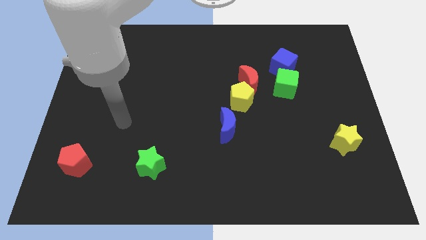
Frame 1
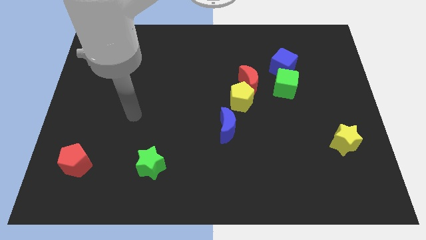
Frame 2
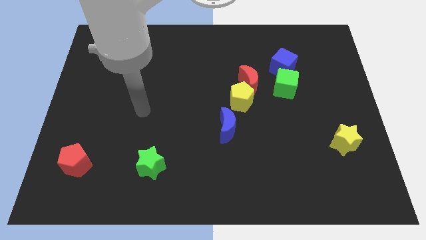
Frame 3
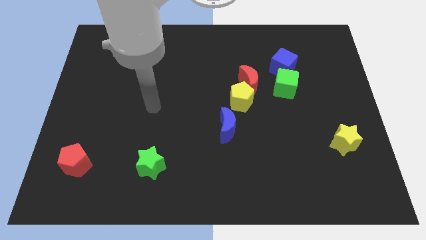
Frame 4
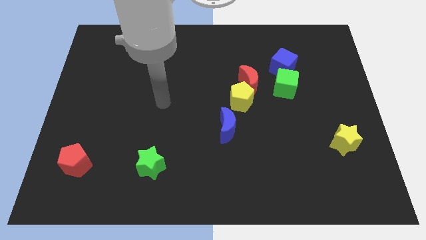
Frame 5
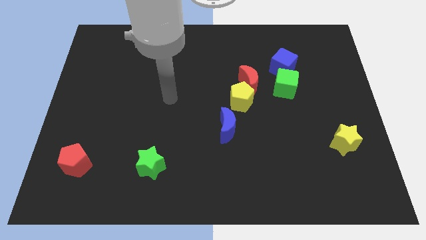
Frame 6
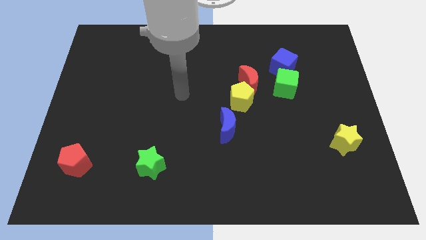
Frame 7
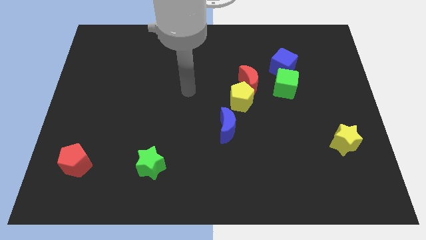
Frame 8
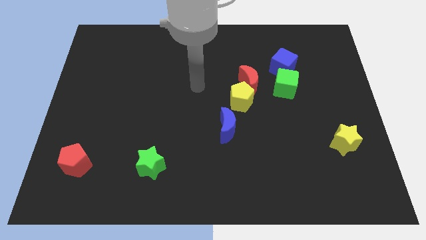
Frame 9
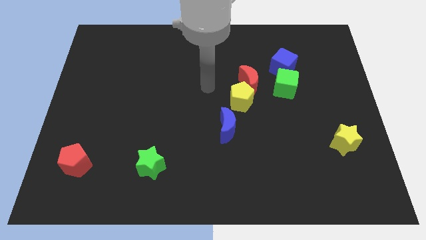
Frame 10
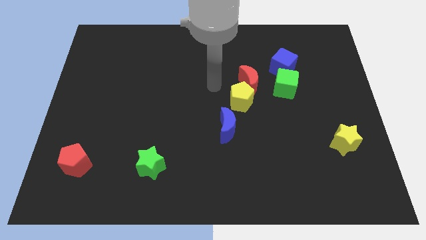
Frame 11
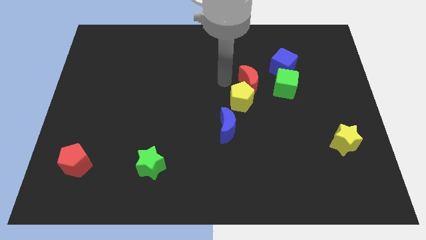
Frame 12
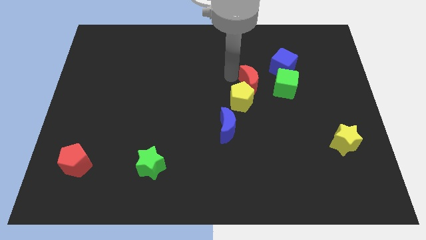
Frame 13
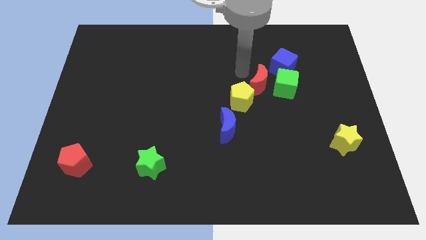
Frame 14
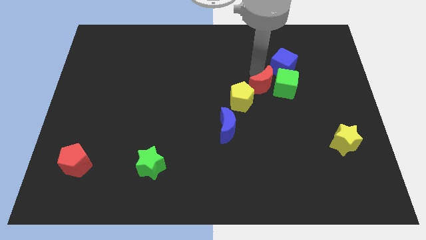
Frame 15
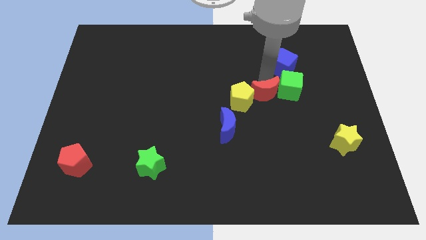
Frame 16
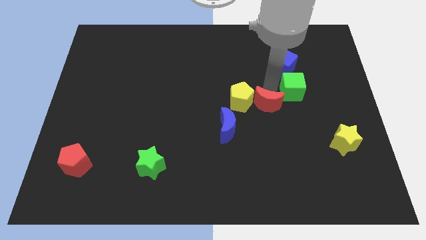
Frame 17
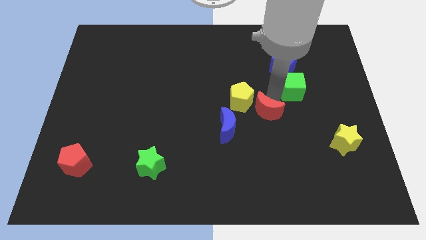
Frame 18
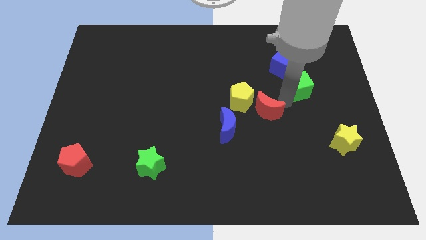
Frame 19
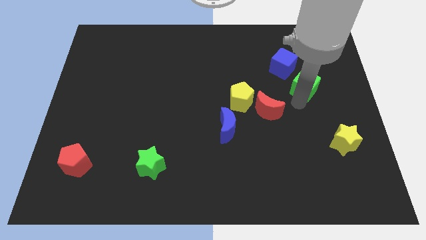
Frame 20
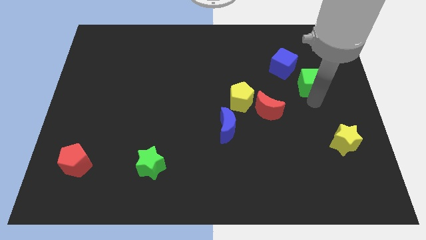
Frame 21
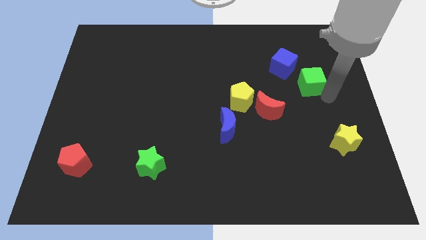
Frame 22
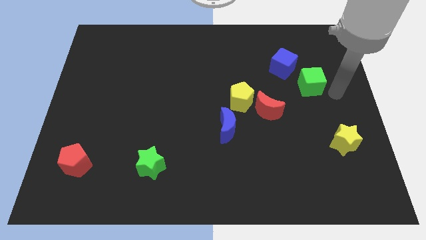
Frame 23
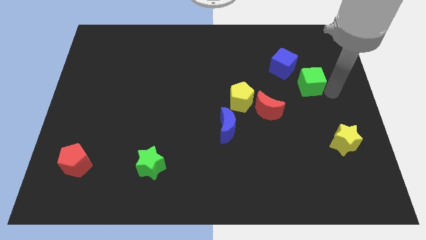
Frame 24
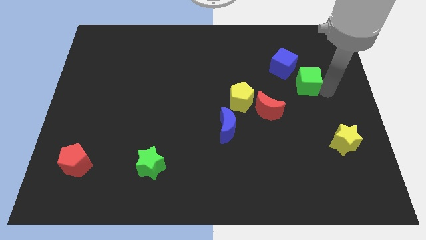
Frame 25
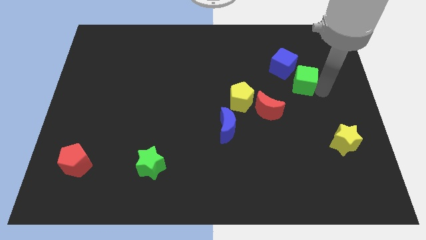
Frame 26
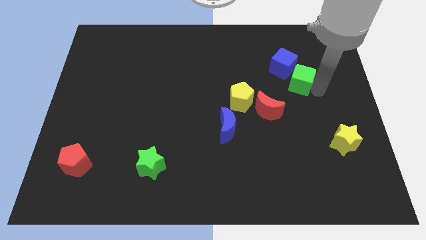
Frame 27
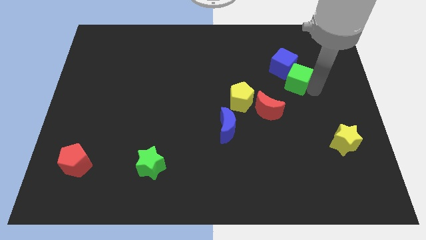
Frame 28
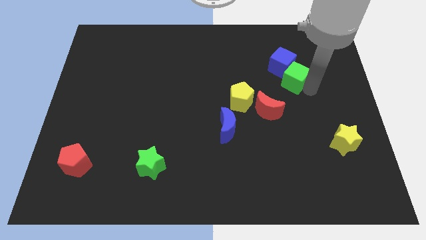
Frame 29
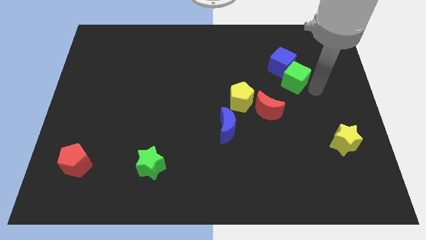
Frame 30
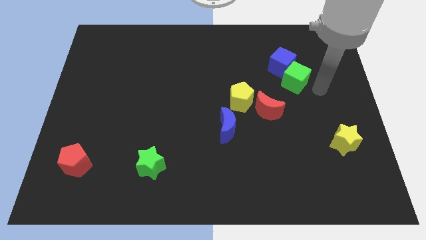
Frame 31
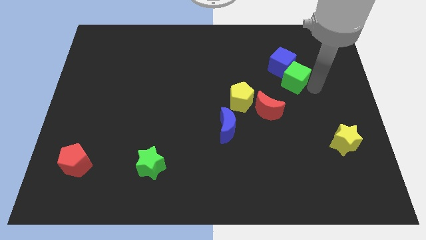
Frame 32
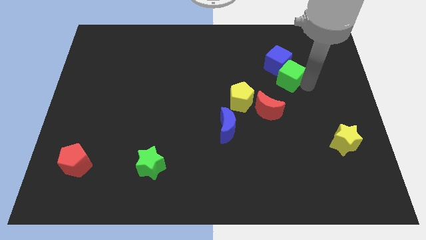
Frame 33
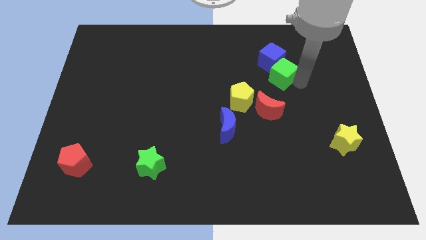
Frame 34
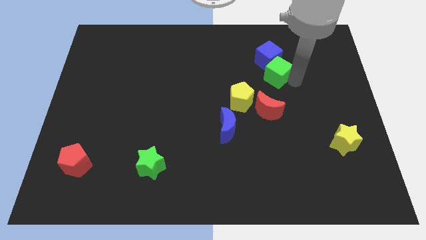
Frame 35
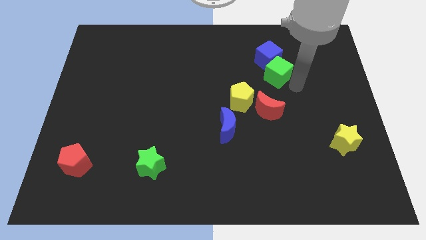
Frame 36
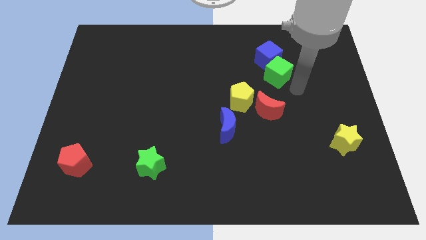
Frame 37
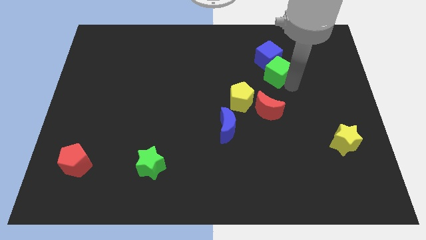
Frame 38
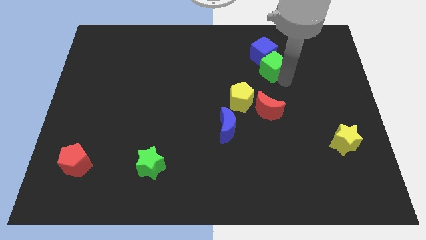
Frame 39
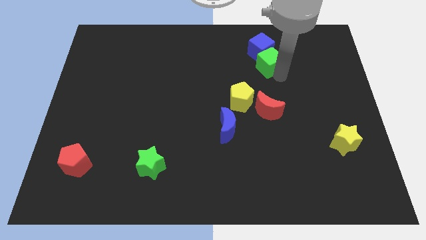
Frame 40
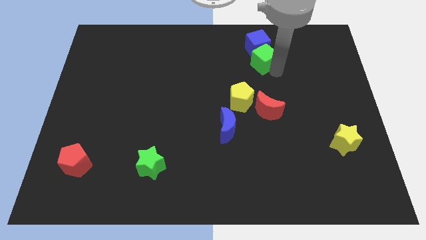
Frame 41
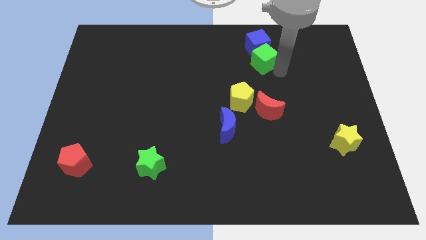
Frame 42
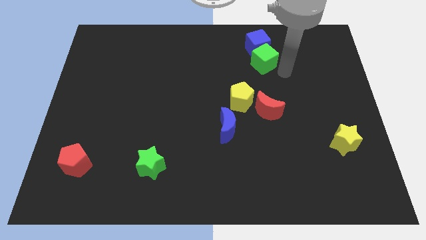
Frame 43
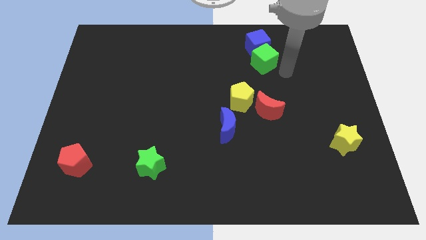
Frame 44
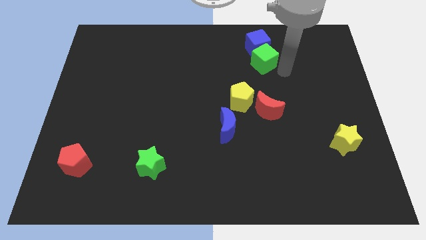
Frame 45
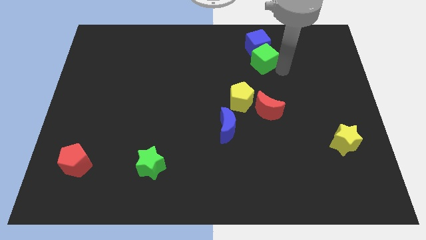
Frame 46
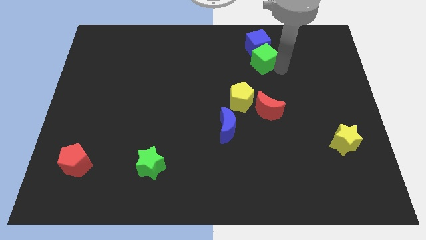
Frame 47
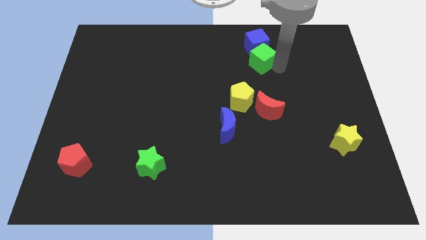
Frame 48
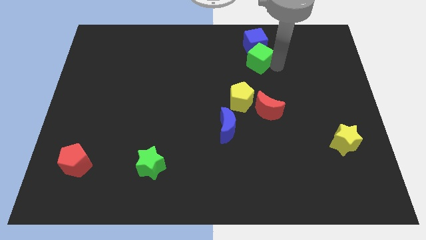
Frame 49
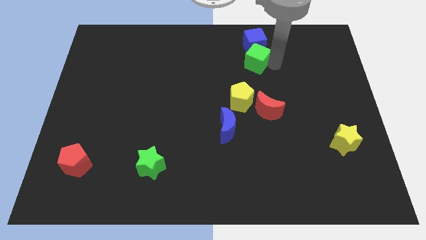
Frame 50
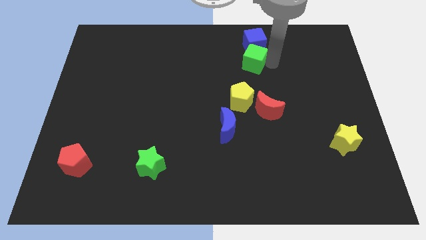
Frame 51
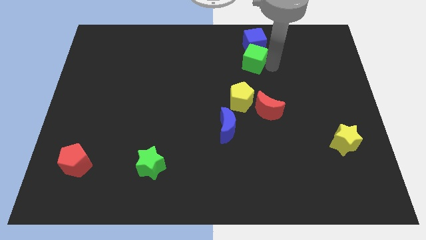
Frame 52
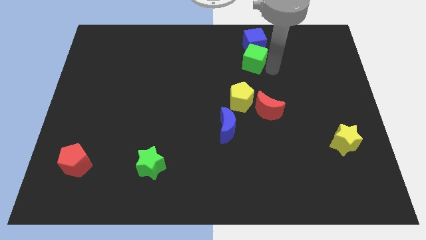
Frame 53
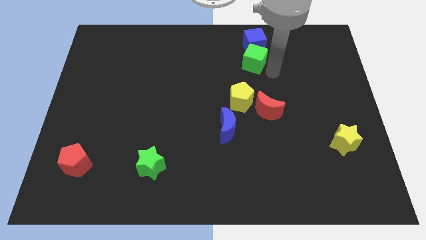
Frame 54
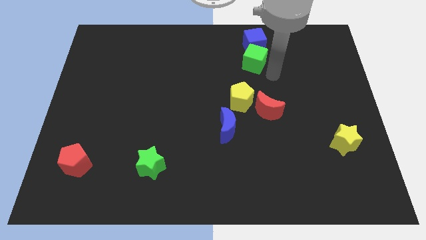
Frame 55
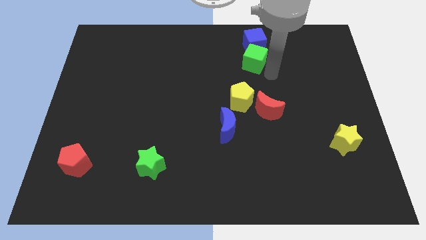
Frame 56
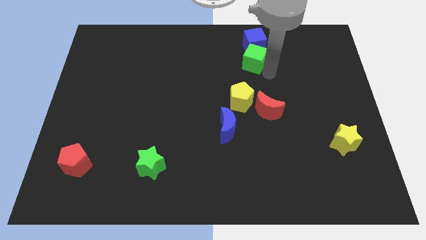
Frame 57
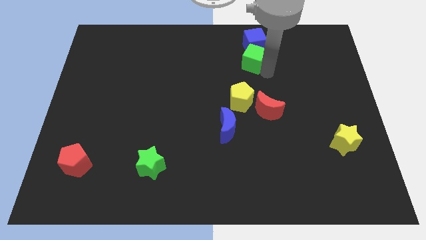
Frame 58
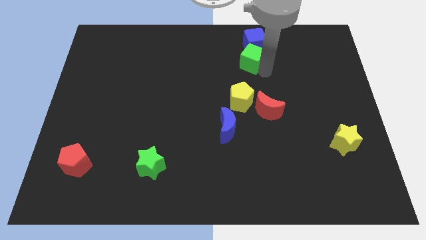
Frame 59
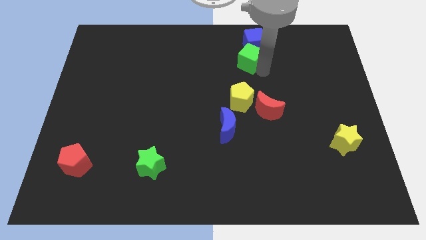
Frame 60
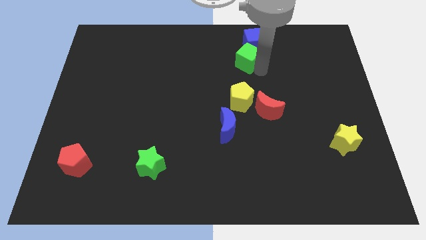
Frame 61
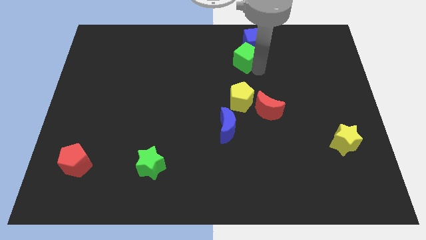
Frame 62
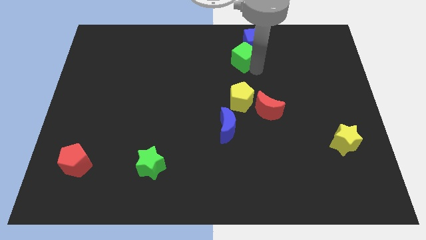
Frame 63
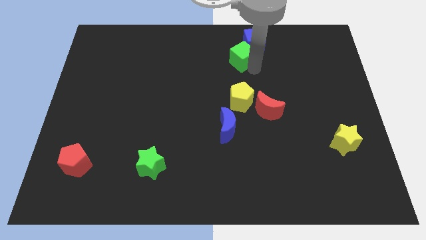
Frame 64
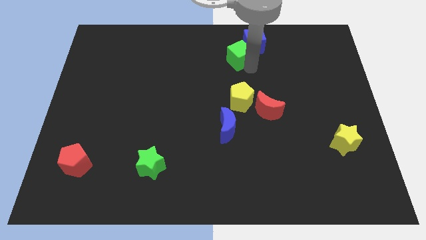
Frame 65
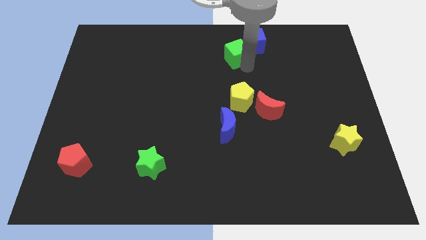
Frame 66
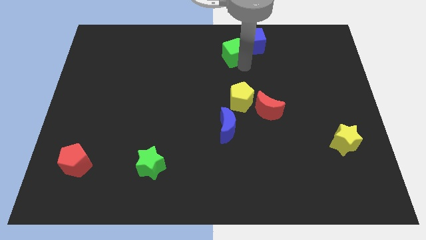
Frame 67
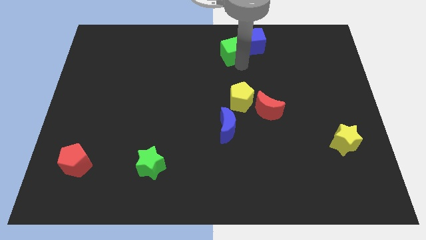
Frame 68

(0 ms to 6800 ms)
slide the green cube to the top
